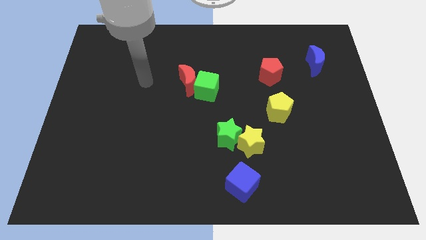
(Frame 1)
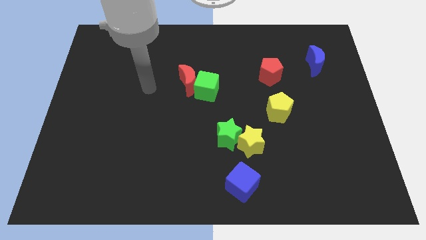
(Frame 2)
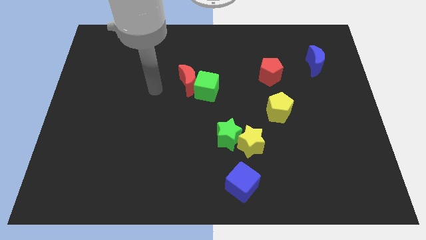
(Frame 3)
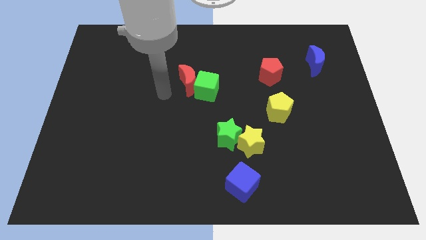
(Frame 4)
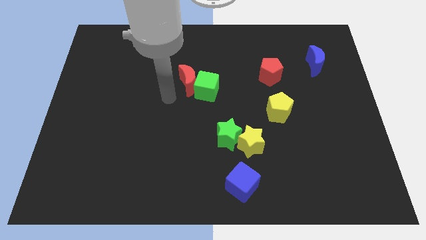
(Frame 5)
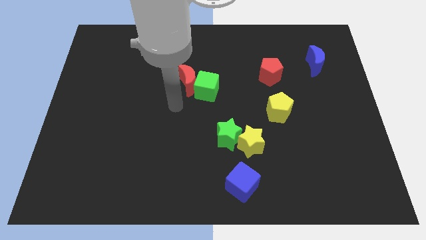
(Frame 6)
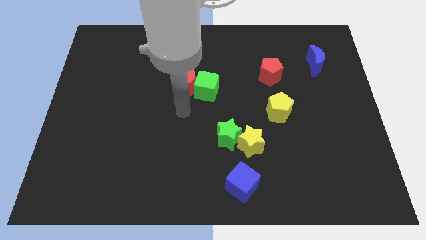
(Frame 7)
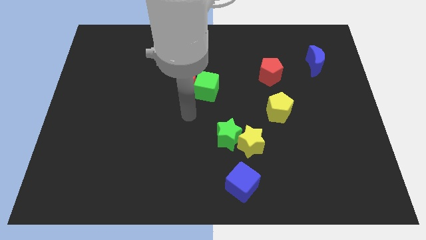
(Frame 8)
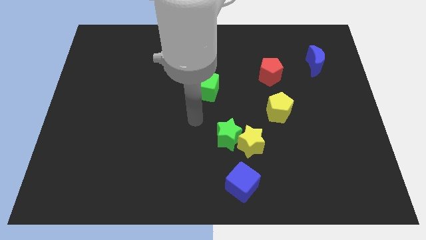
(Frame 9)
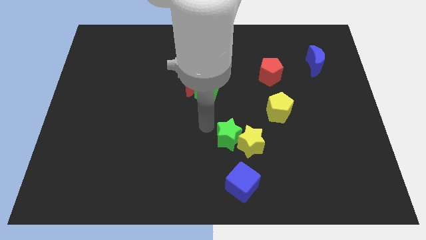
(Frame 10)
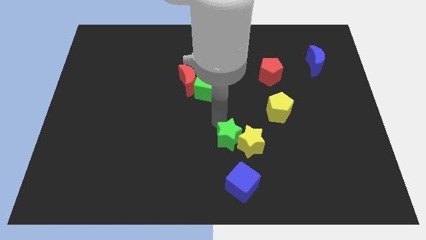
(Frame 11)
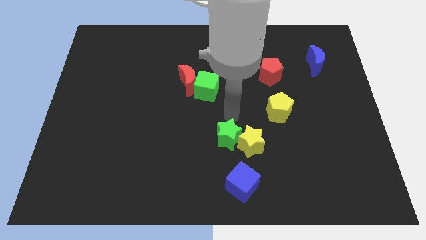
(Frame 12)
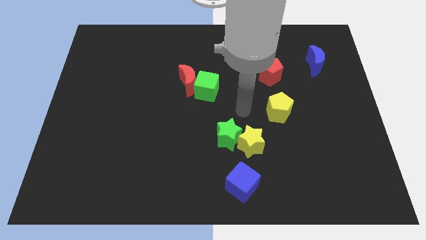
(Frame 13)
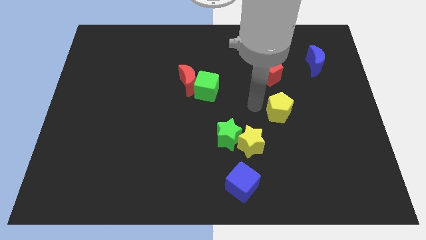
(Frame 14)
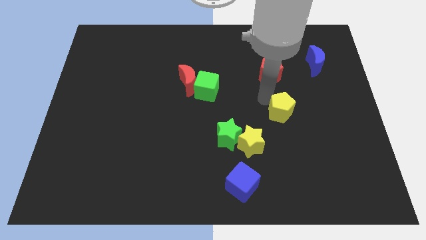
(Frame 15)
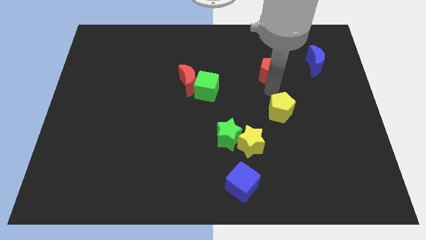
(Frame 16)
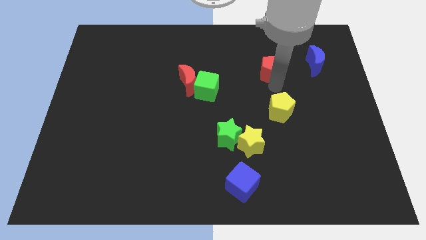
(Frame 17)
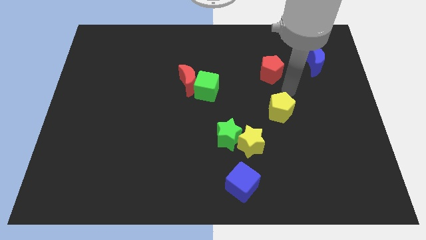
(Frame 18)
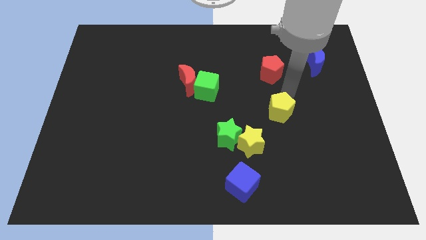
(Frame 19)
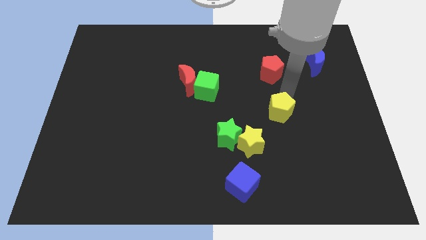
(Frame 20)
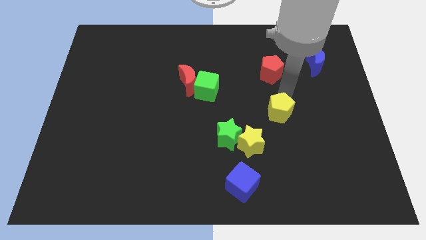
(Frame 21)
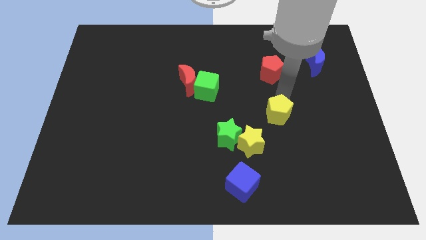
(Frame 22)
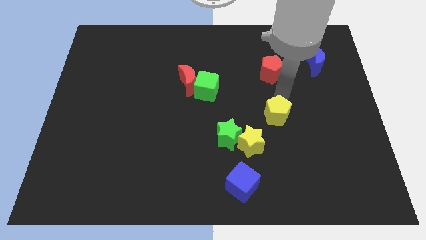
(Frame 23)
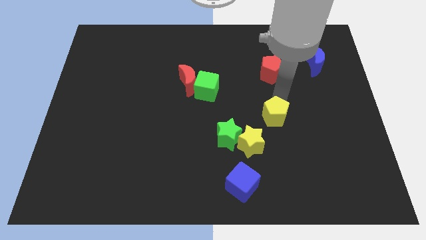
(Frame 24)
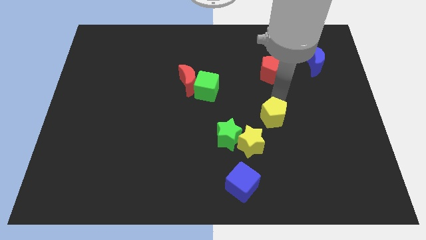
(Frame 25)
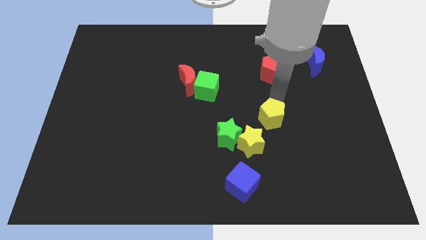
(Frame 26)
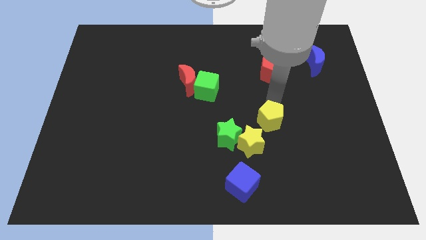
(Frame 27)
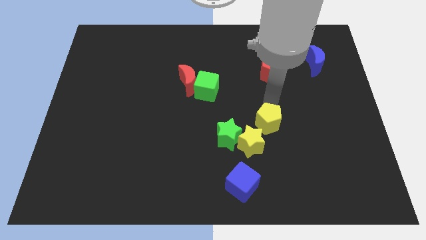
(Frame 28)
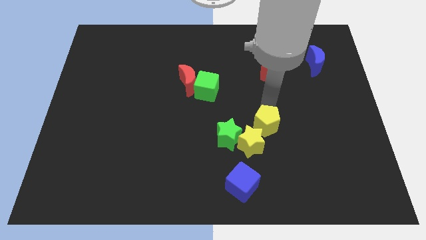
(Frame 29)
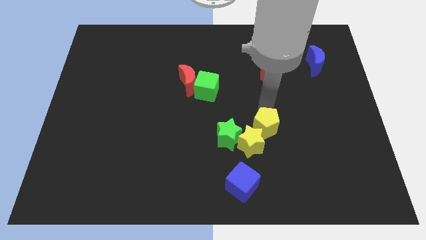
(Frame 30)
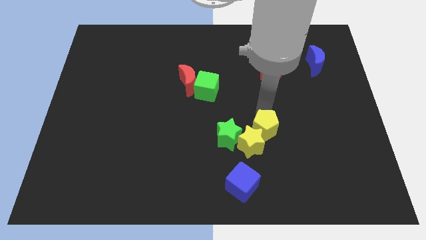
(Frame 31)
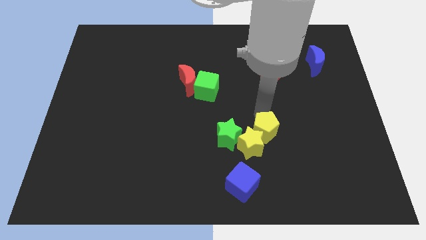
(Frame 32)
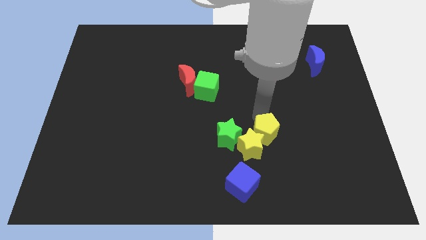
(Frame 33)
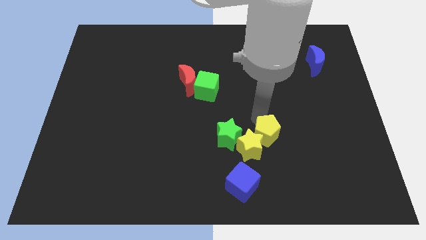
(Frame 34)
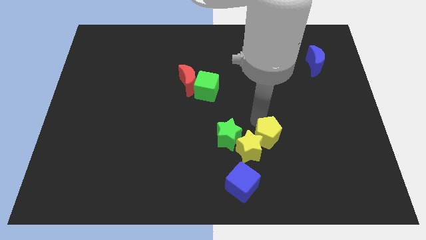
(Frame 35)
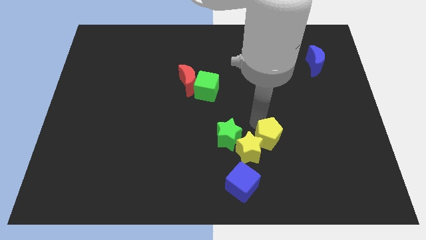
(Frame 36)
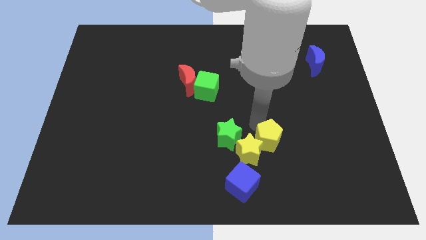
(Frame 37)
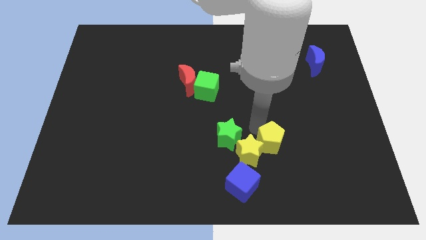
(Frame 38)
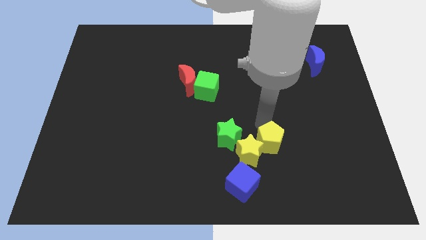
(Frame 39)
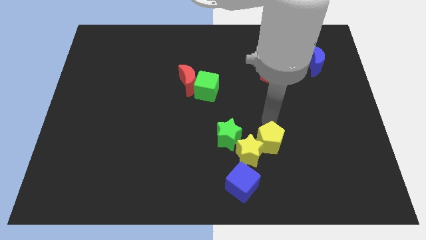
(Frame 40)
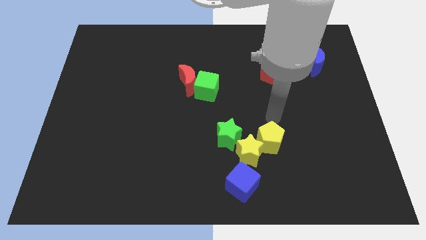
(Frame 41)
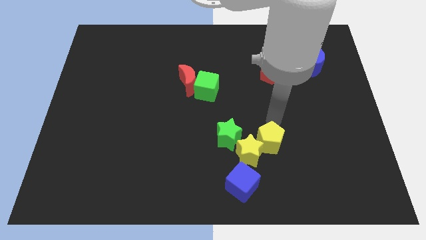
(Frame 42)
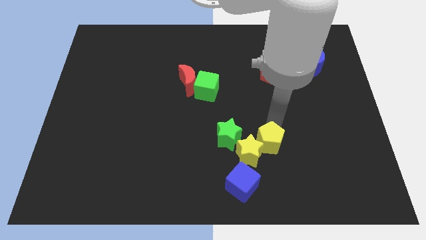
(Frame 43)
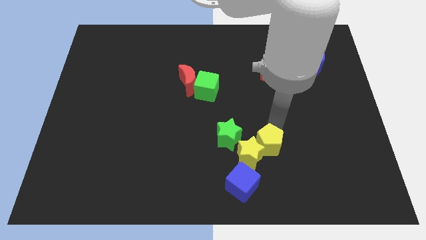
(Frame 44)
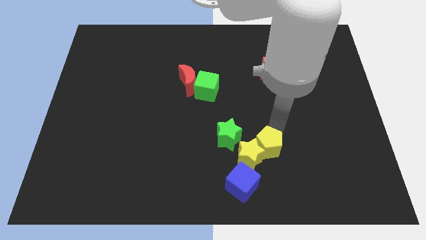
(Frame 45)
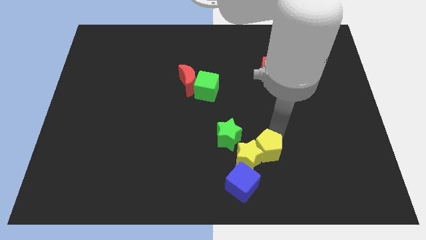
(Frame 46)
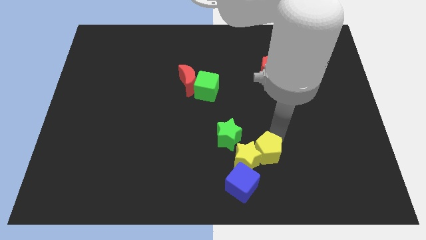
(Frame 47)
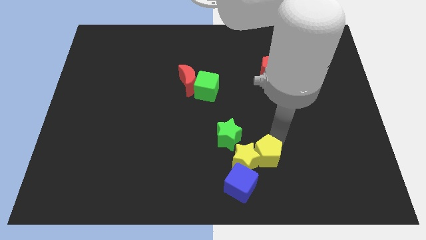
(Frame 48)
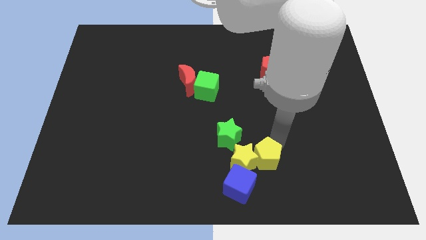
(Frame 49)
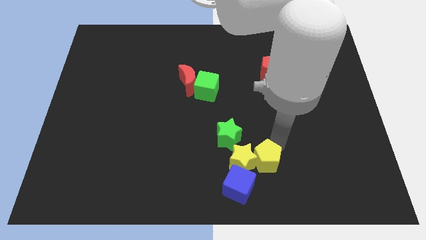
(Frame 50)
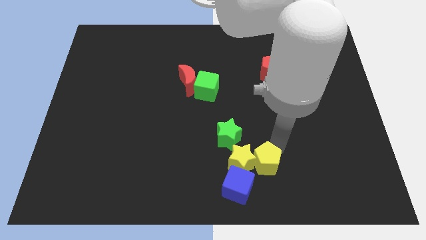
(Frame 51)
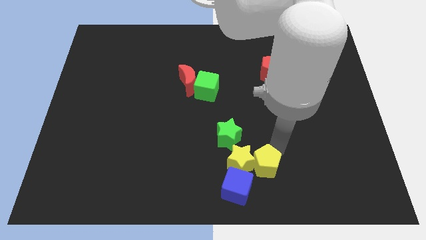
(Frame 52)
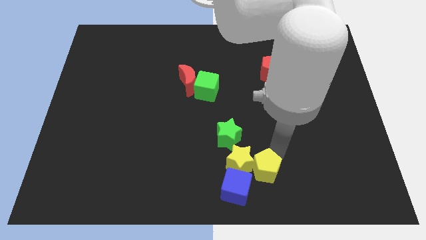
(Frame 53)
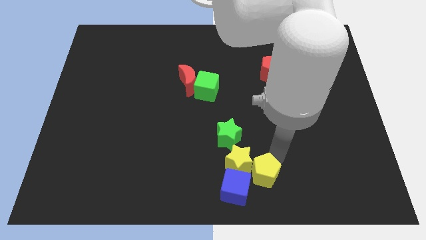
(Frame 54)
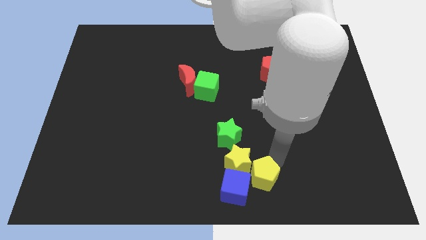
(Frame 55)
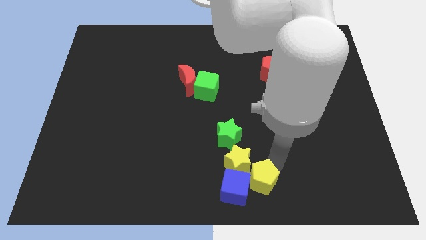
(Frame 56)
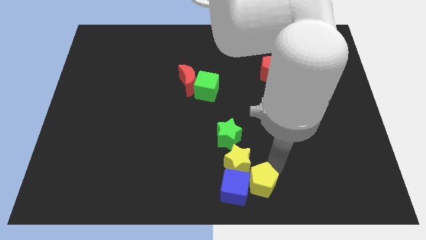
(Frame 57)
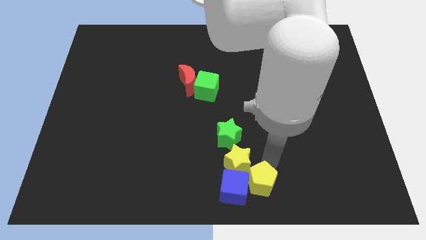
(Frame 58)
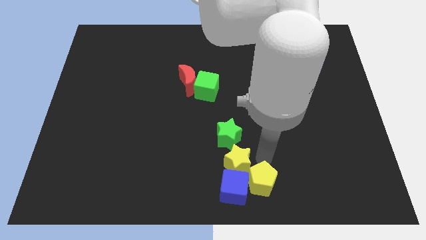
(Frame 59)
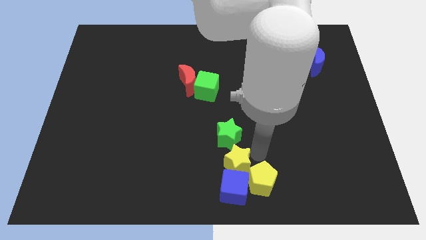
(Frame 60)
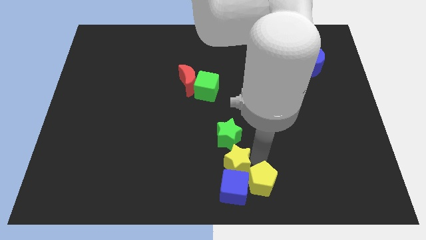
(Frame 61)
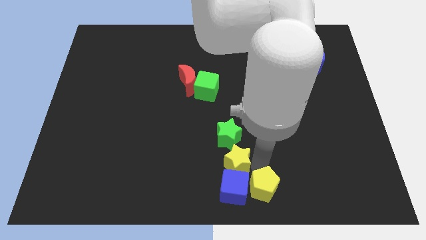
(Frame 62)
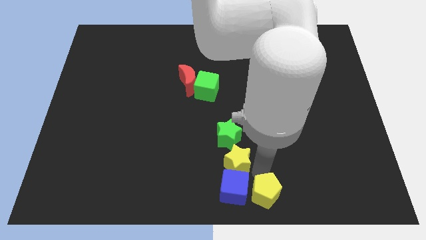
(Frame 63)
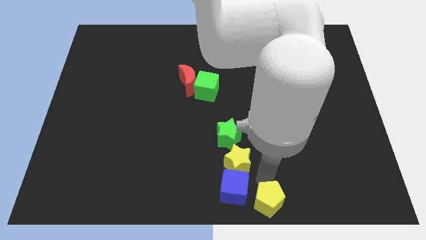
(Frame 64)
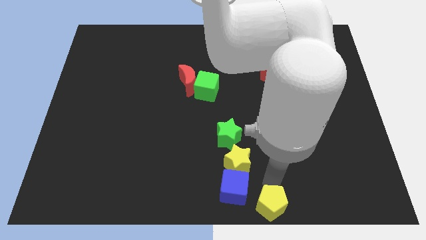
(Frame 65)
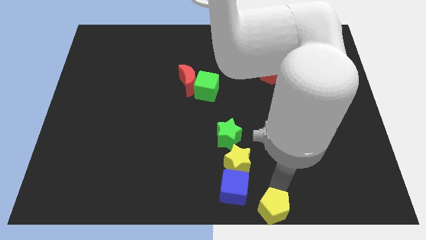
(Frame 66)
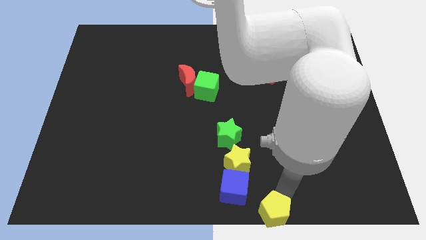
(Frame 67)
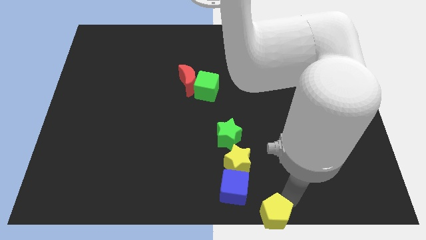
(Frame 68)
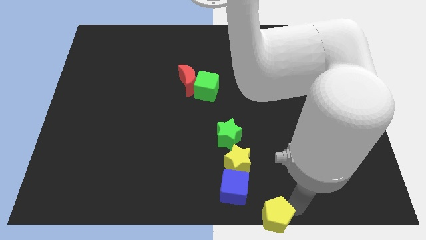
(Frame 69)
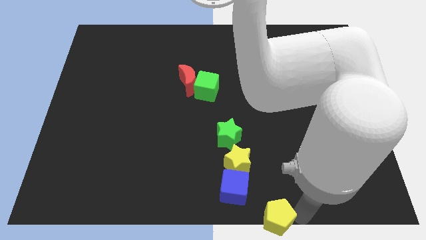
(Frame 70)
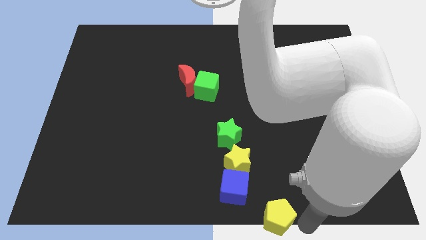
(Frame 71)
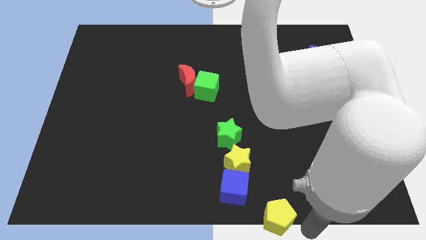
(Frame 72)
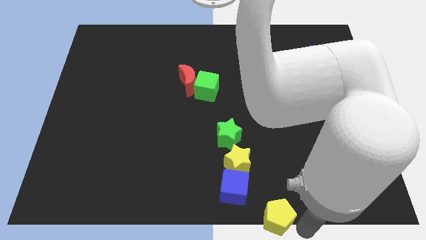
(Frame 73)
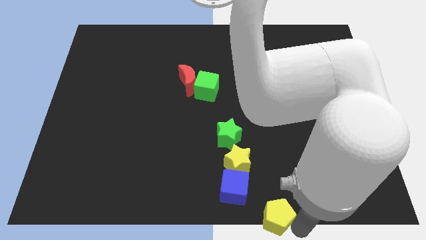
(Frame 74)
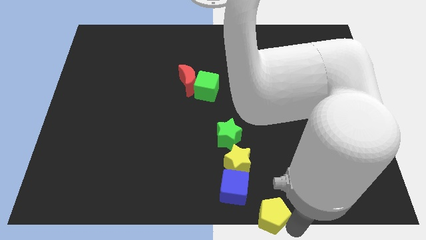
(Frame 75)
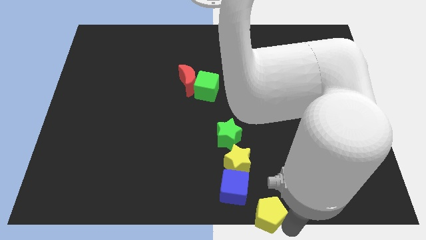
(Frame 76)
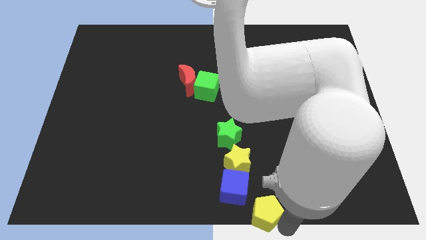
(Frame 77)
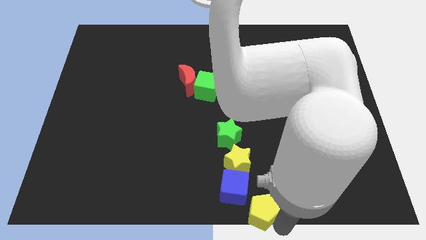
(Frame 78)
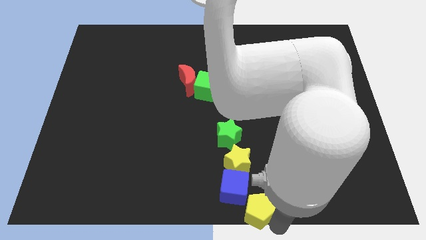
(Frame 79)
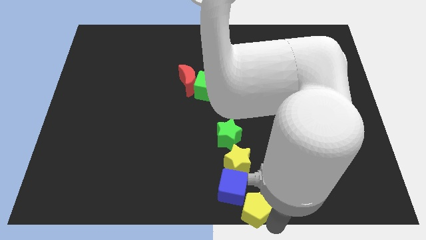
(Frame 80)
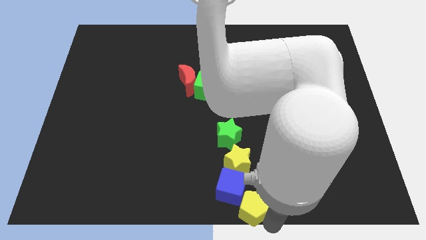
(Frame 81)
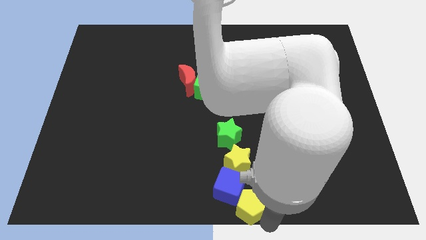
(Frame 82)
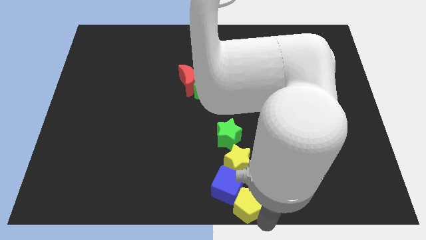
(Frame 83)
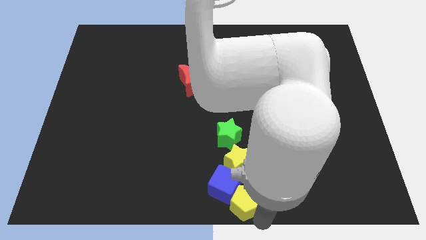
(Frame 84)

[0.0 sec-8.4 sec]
put the yellow pentagon to the bottom side of the green star
